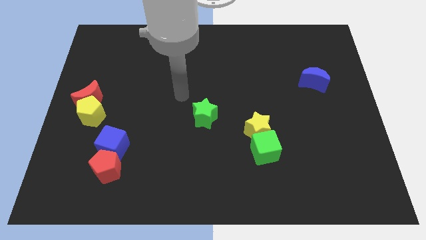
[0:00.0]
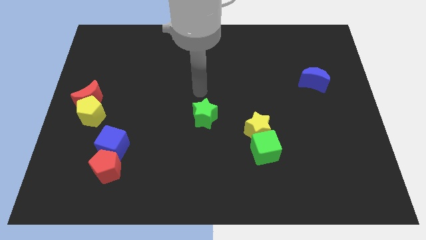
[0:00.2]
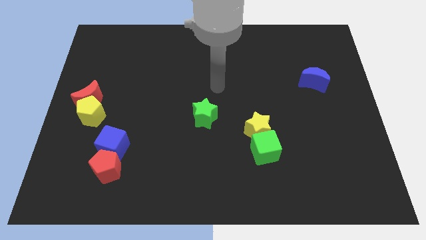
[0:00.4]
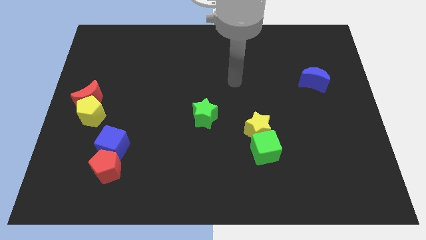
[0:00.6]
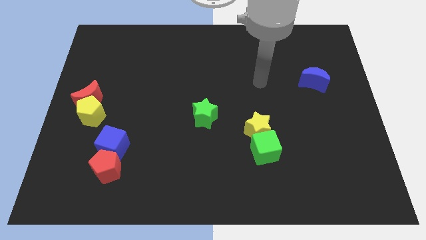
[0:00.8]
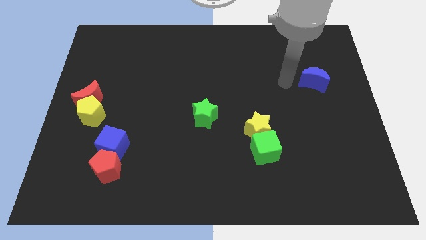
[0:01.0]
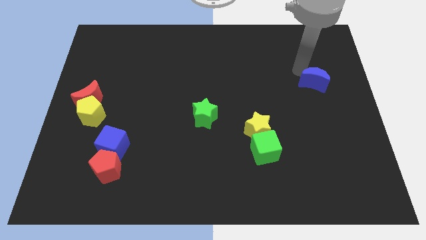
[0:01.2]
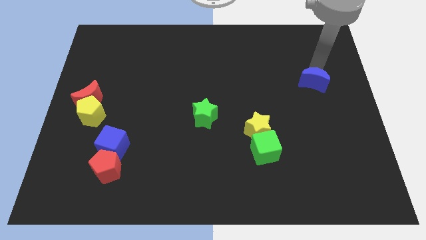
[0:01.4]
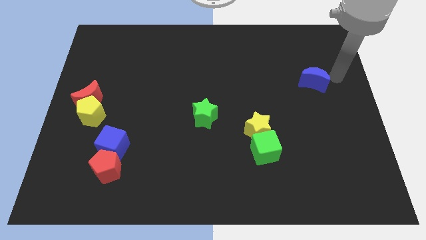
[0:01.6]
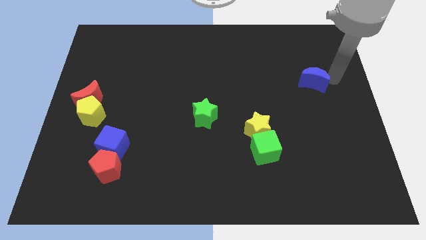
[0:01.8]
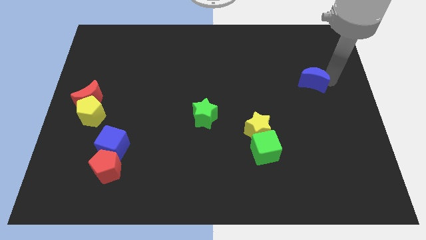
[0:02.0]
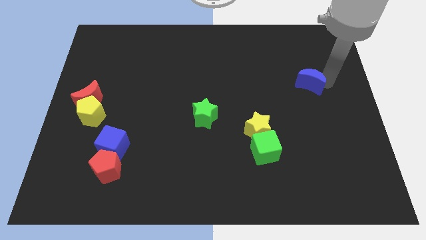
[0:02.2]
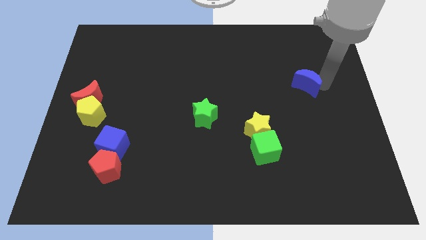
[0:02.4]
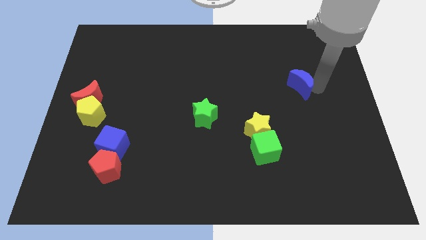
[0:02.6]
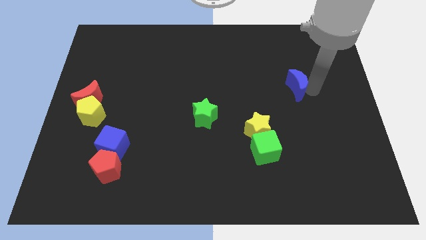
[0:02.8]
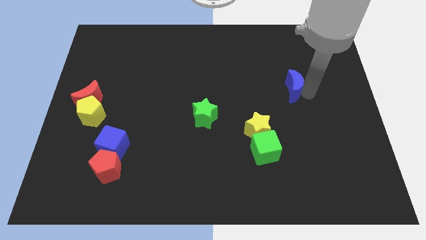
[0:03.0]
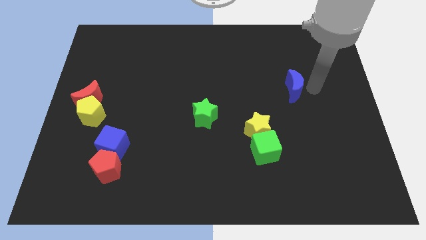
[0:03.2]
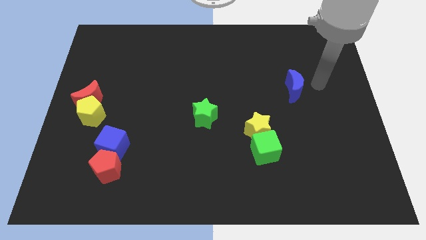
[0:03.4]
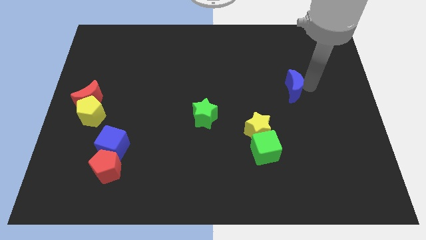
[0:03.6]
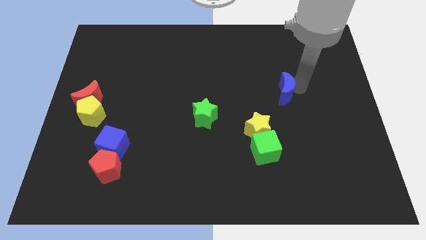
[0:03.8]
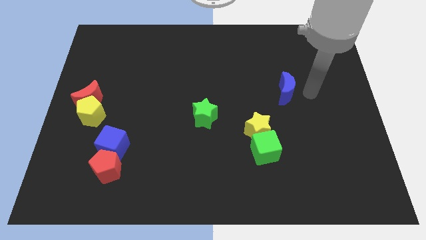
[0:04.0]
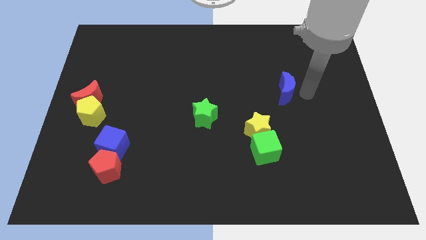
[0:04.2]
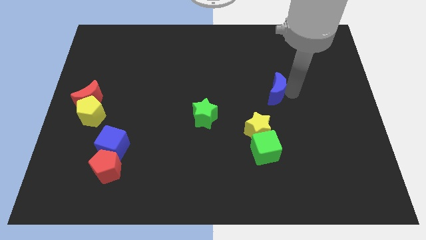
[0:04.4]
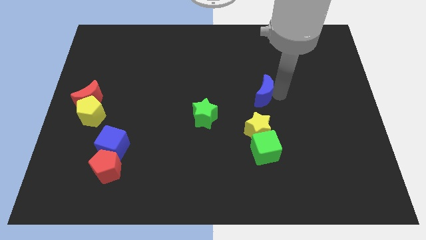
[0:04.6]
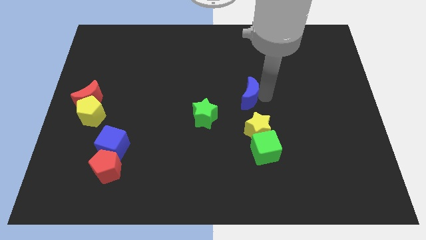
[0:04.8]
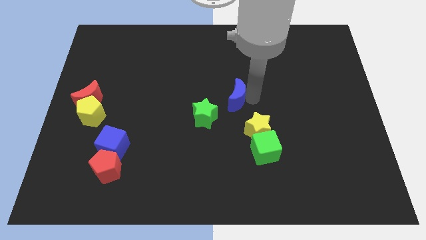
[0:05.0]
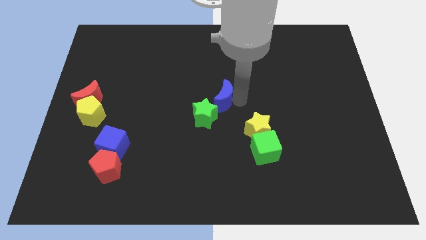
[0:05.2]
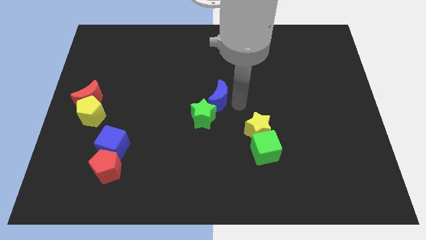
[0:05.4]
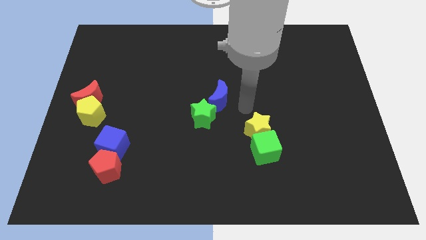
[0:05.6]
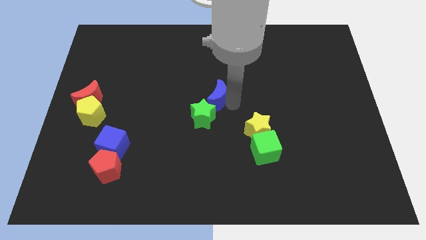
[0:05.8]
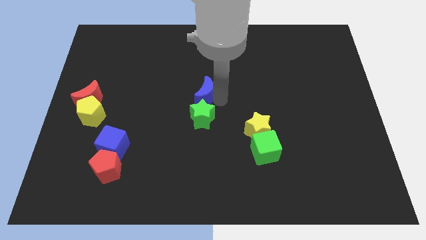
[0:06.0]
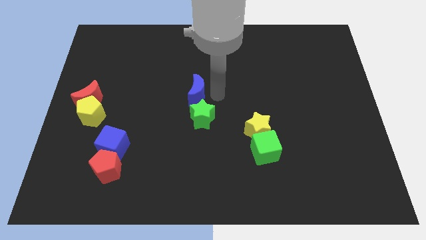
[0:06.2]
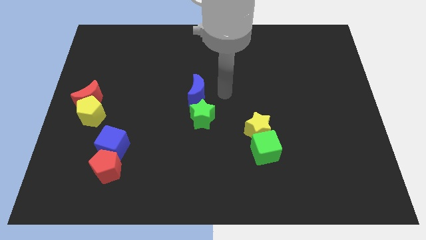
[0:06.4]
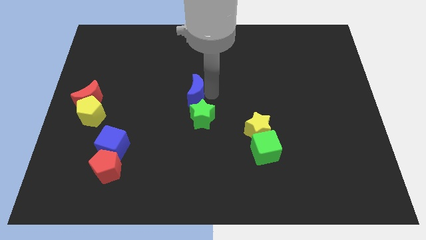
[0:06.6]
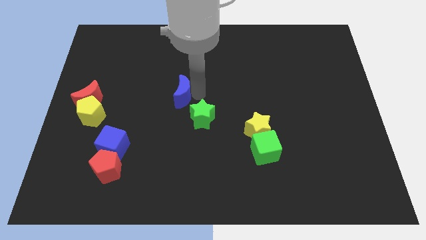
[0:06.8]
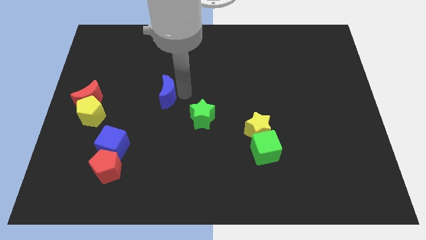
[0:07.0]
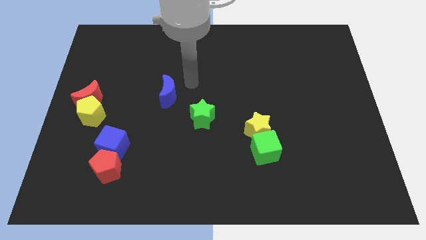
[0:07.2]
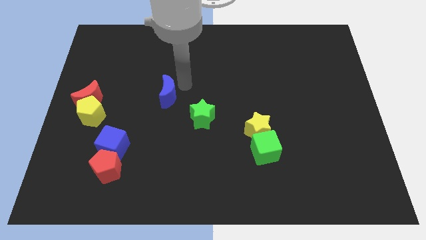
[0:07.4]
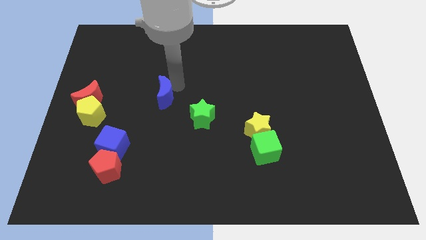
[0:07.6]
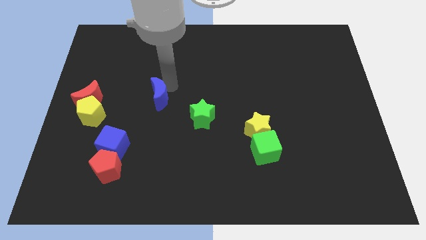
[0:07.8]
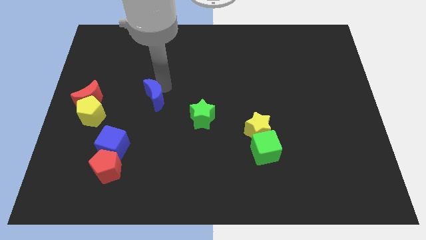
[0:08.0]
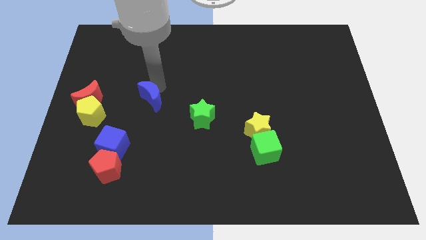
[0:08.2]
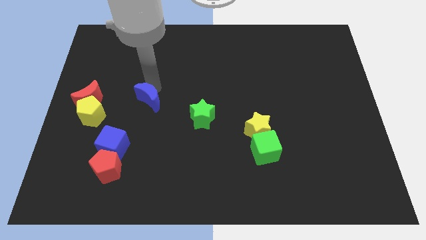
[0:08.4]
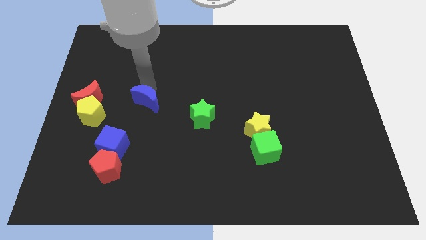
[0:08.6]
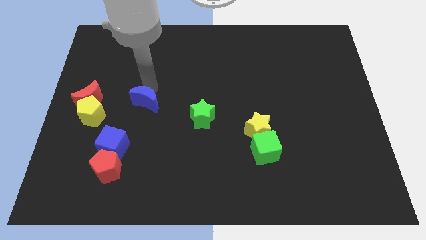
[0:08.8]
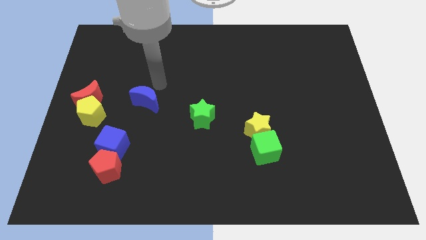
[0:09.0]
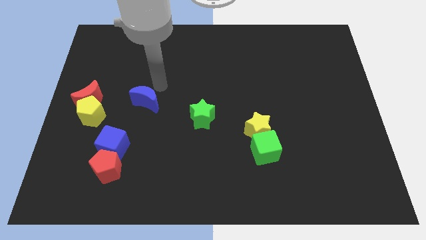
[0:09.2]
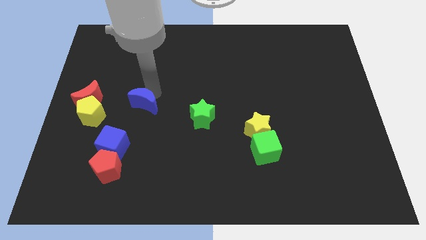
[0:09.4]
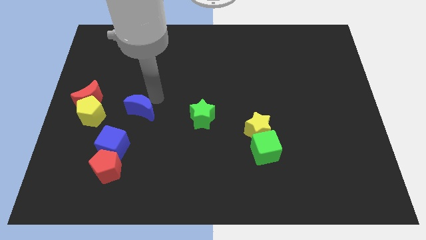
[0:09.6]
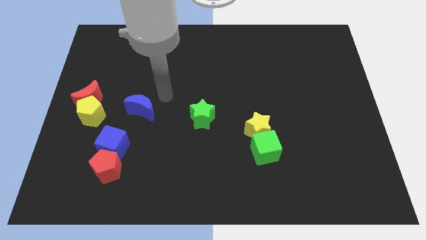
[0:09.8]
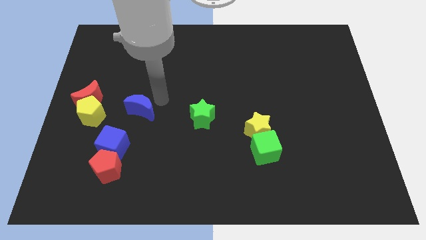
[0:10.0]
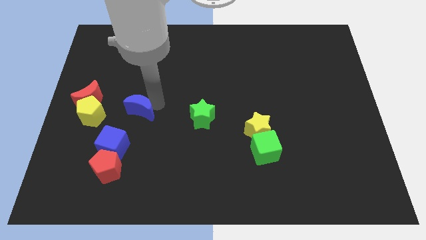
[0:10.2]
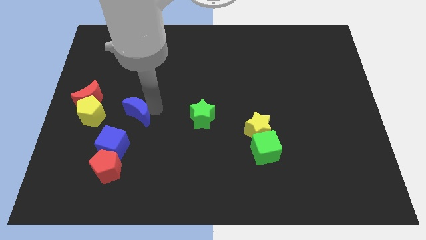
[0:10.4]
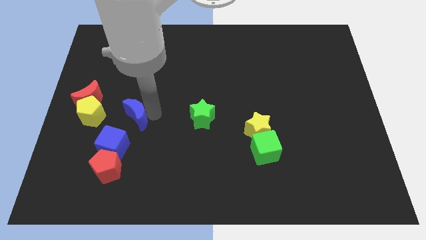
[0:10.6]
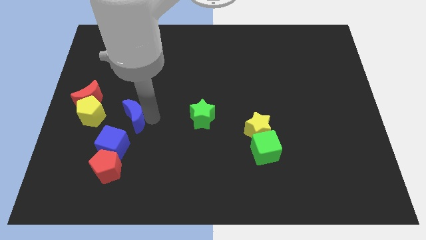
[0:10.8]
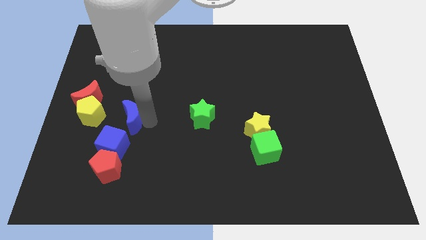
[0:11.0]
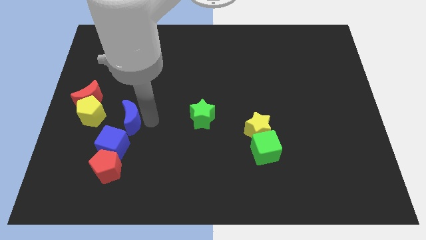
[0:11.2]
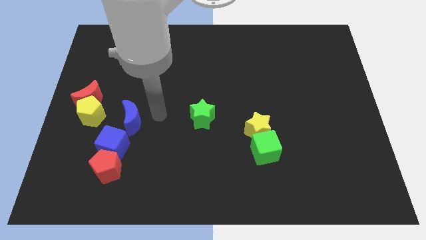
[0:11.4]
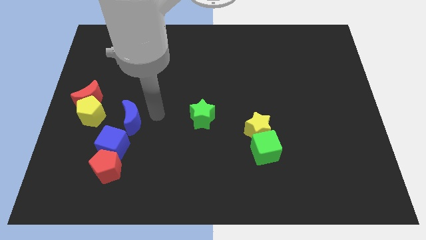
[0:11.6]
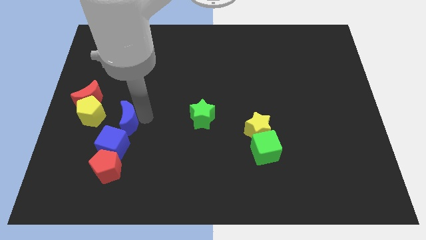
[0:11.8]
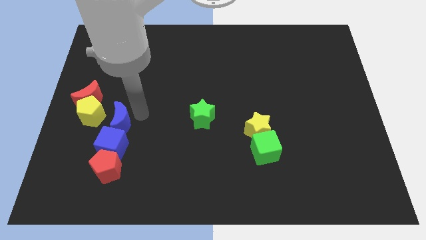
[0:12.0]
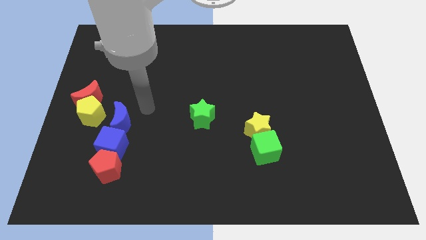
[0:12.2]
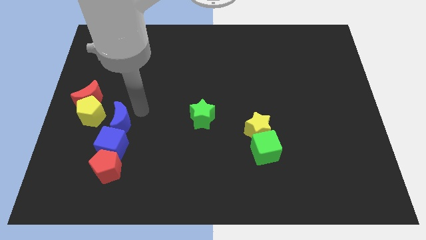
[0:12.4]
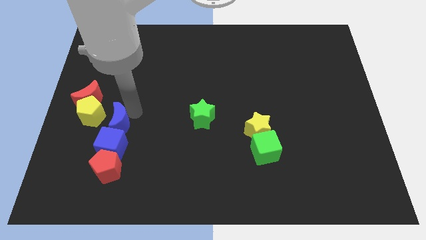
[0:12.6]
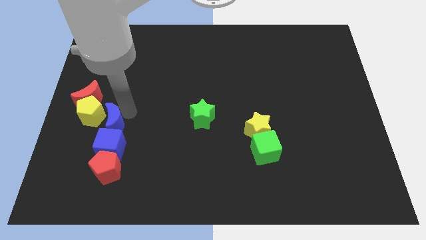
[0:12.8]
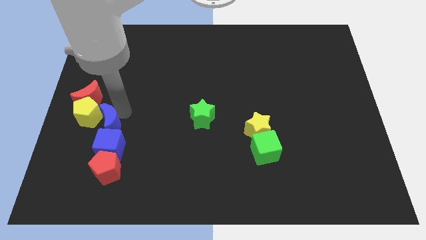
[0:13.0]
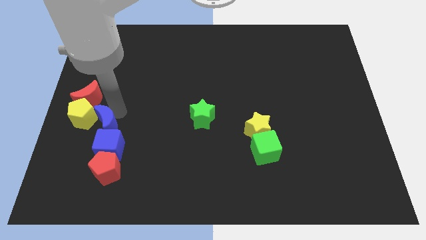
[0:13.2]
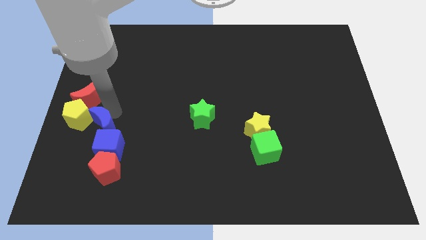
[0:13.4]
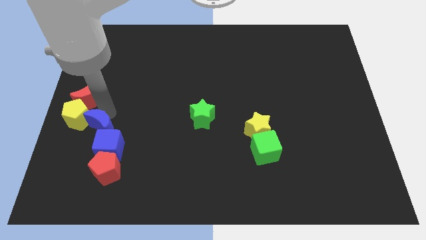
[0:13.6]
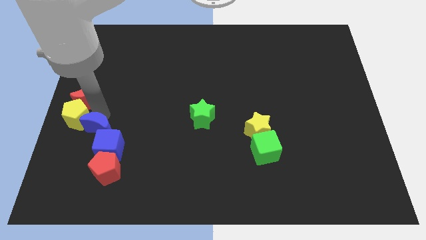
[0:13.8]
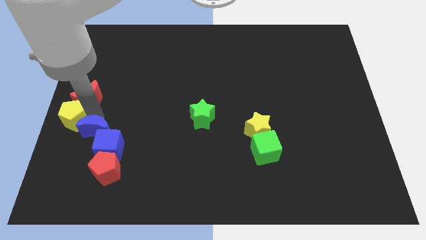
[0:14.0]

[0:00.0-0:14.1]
slide the blue moon to the top left side of the red pentagon
